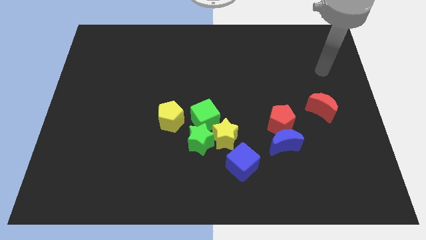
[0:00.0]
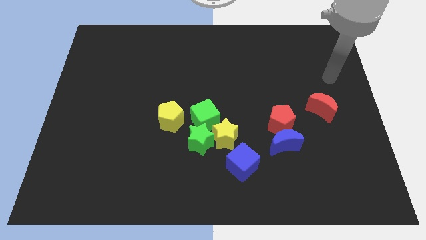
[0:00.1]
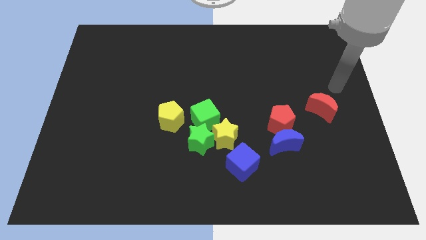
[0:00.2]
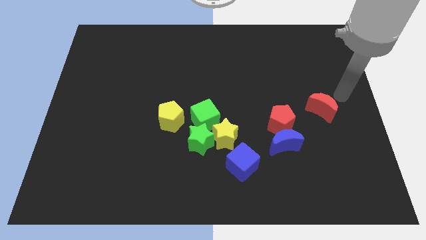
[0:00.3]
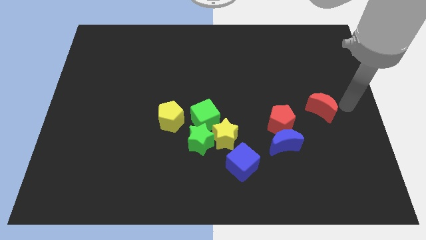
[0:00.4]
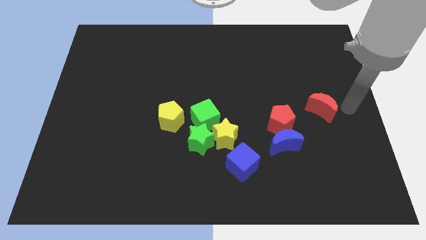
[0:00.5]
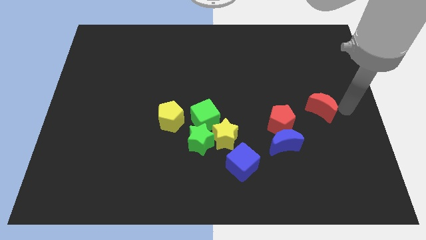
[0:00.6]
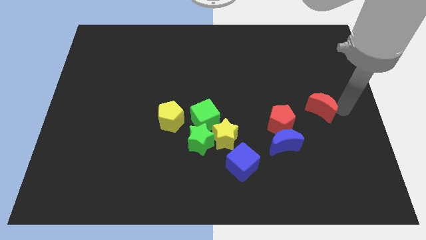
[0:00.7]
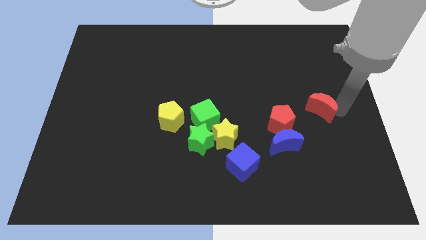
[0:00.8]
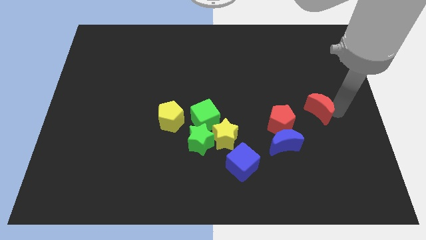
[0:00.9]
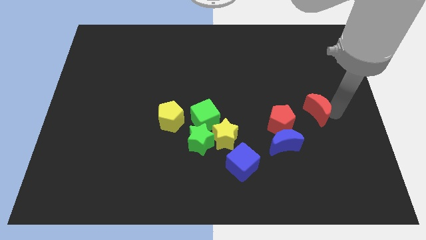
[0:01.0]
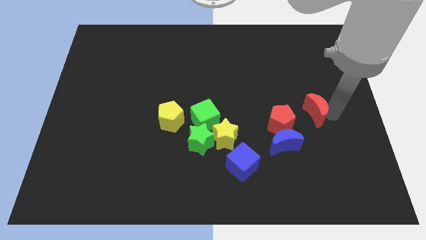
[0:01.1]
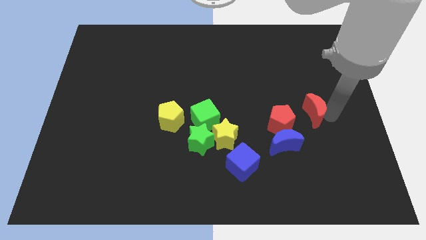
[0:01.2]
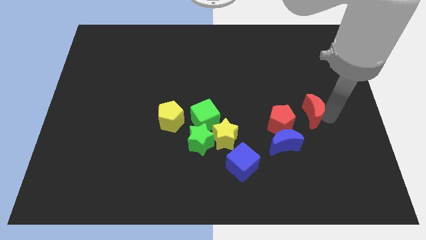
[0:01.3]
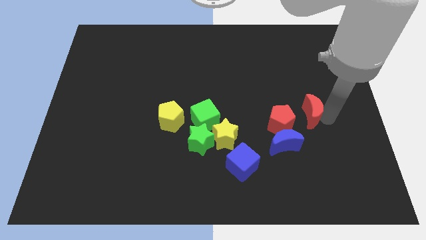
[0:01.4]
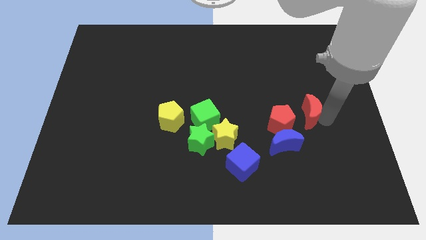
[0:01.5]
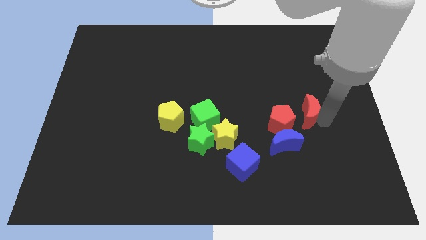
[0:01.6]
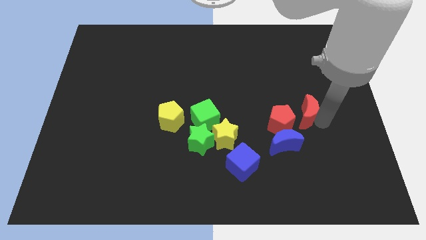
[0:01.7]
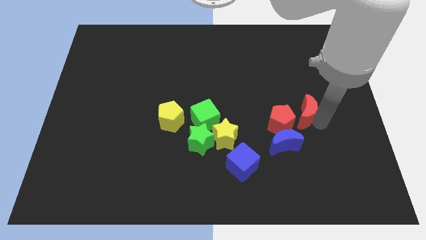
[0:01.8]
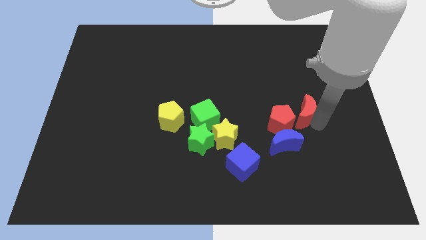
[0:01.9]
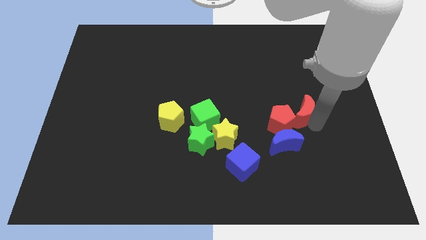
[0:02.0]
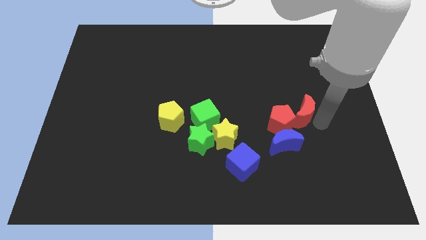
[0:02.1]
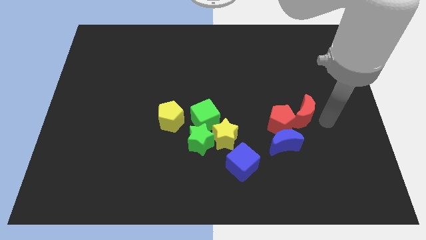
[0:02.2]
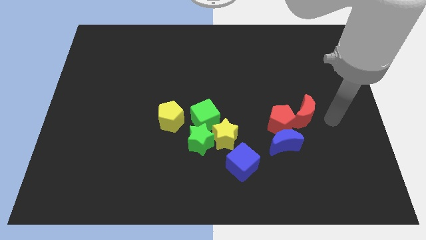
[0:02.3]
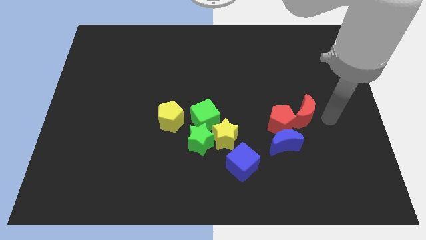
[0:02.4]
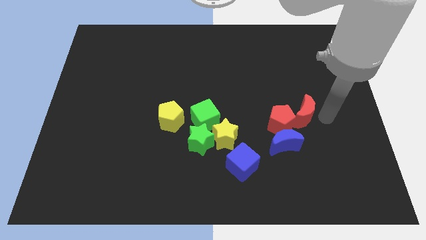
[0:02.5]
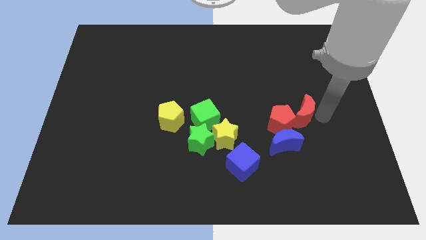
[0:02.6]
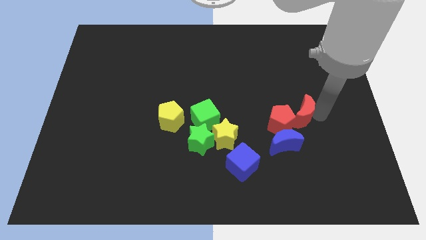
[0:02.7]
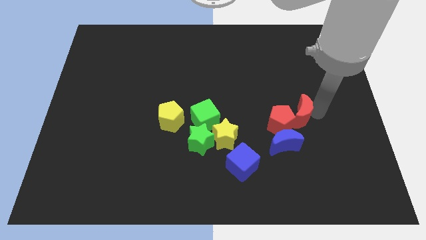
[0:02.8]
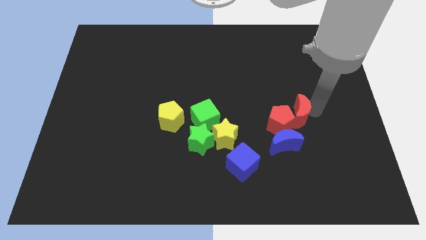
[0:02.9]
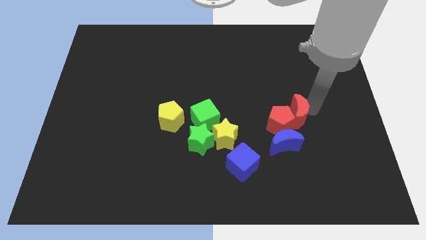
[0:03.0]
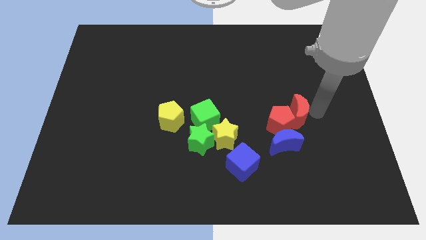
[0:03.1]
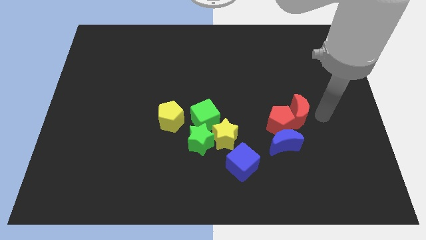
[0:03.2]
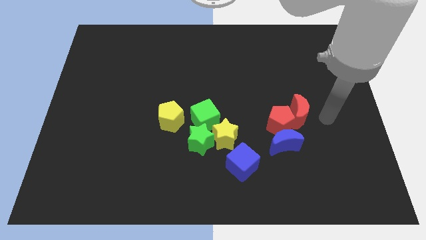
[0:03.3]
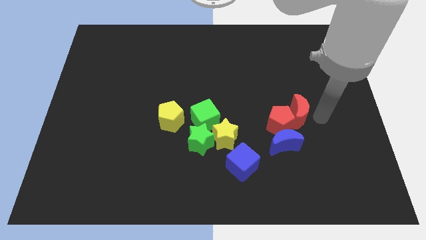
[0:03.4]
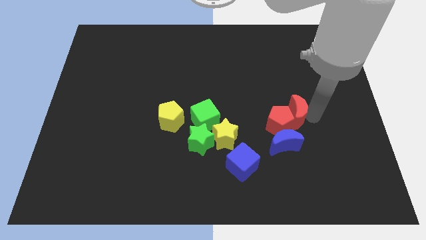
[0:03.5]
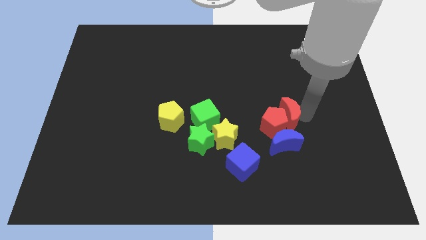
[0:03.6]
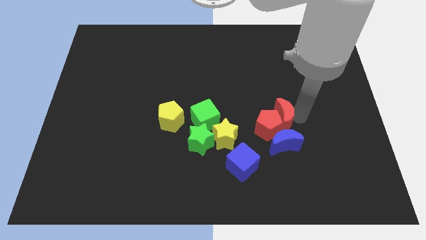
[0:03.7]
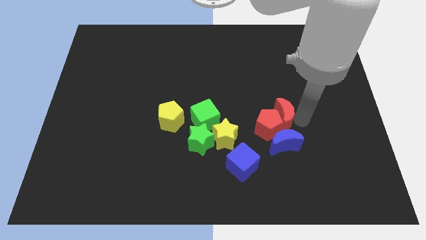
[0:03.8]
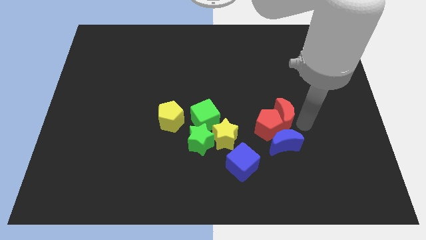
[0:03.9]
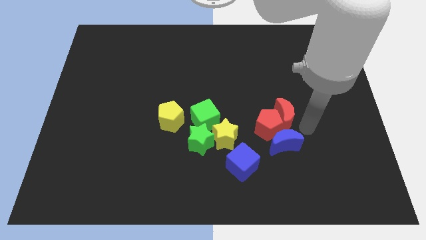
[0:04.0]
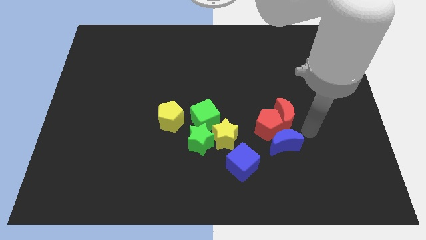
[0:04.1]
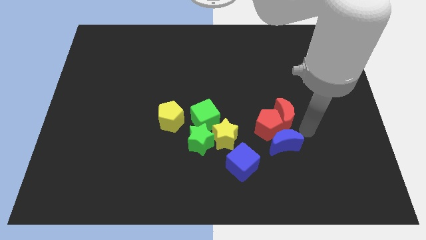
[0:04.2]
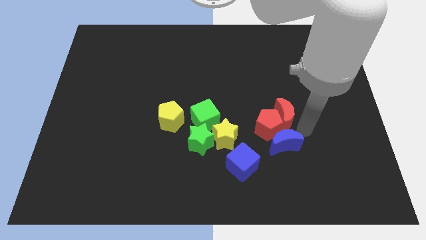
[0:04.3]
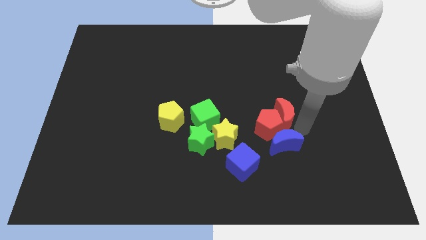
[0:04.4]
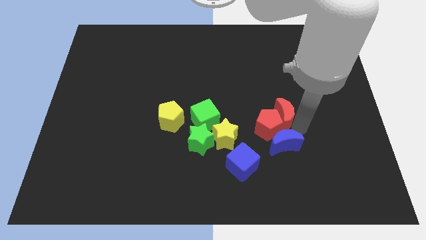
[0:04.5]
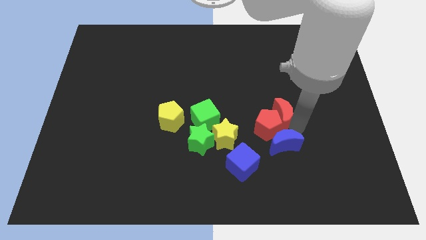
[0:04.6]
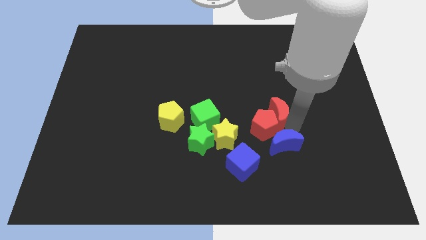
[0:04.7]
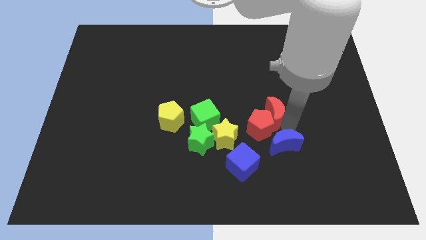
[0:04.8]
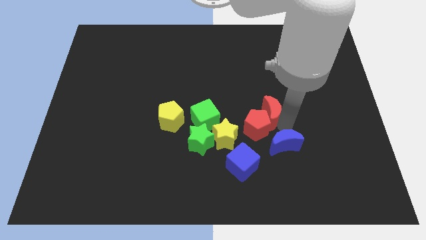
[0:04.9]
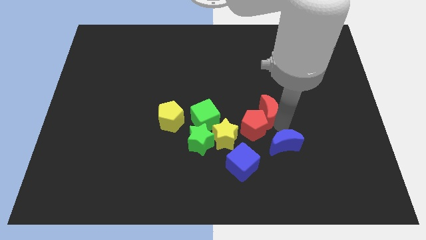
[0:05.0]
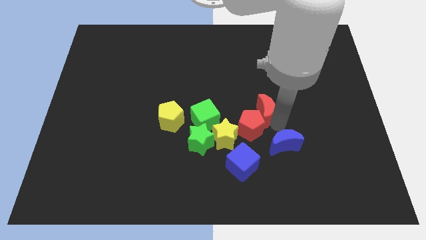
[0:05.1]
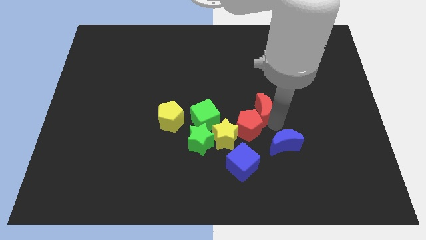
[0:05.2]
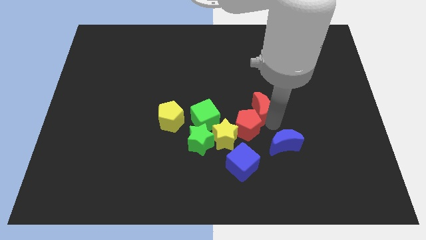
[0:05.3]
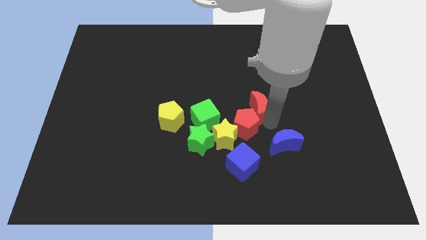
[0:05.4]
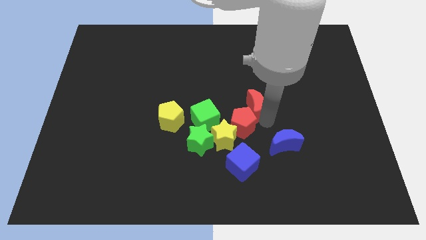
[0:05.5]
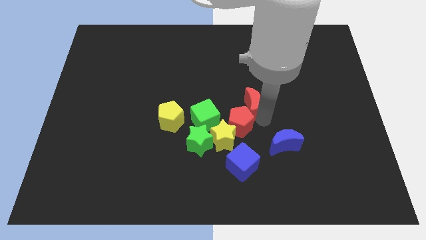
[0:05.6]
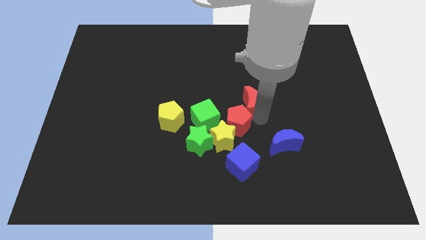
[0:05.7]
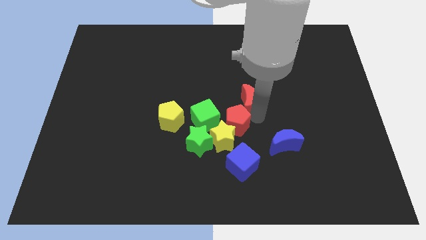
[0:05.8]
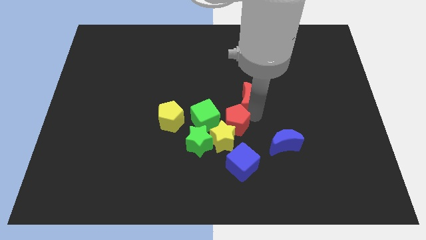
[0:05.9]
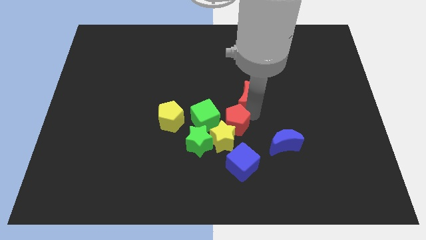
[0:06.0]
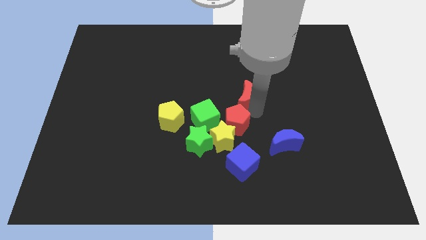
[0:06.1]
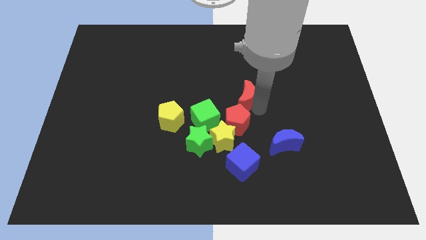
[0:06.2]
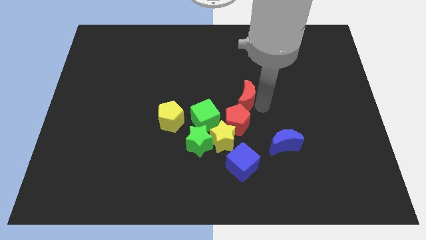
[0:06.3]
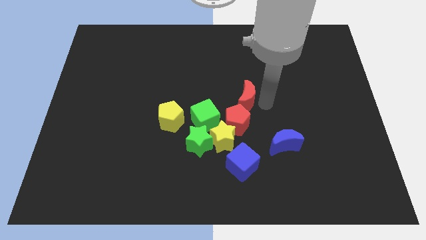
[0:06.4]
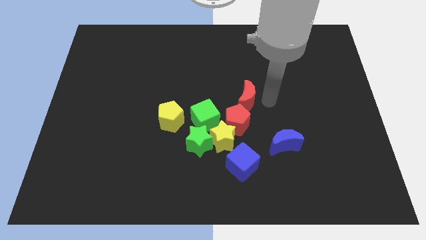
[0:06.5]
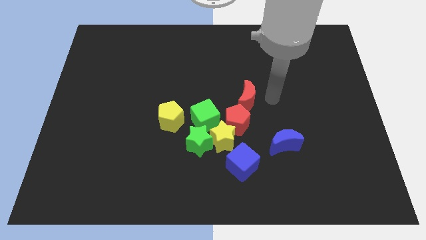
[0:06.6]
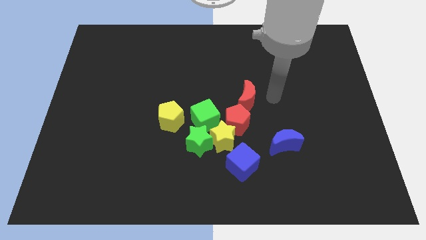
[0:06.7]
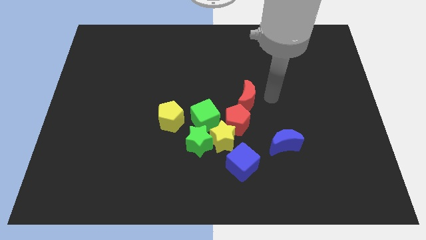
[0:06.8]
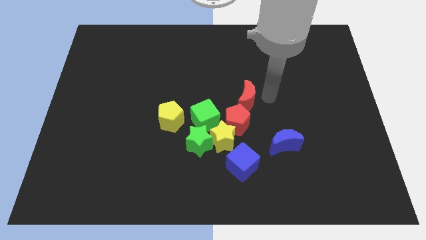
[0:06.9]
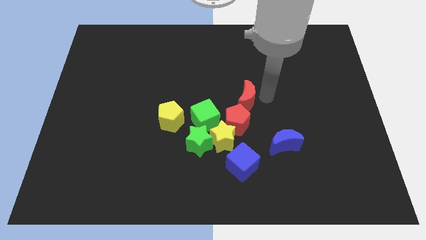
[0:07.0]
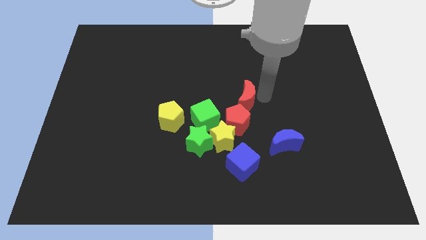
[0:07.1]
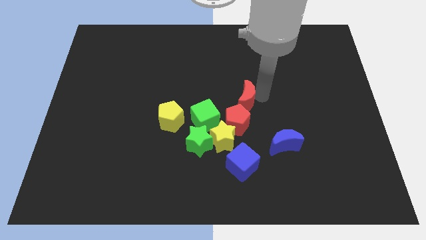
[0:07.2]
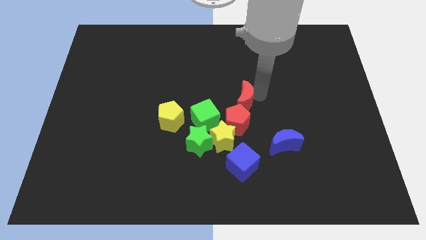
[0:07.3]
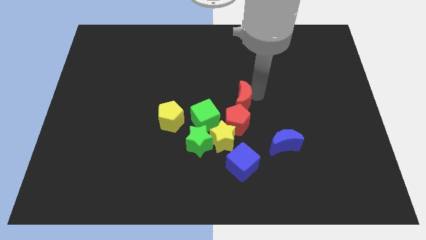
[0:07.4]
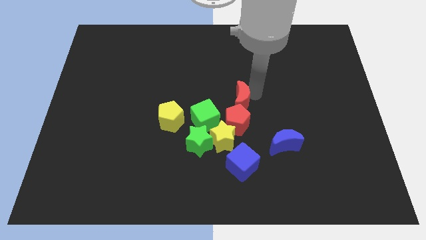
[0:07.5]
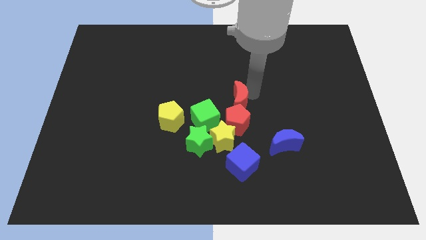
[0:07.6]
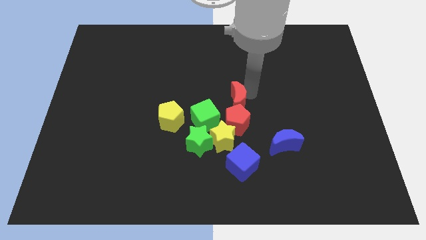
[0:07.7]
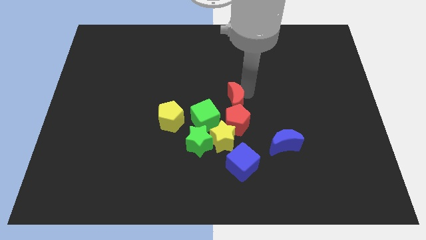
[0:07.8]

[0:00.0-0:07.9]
slide the red moon to the left
